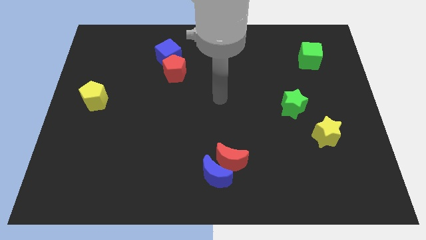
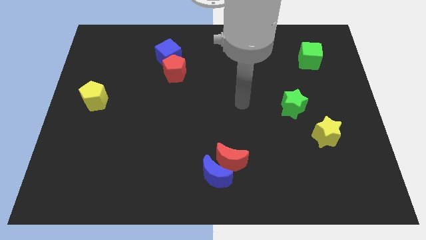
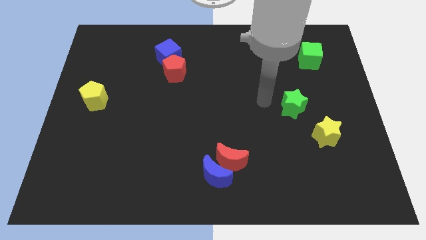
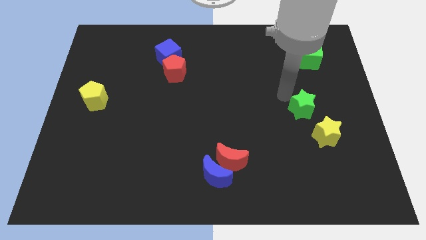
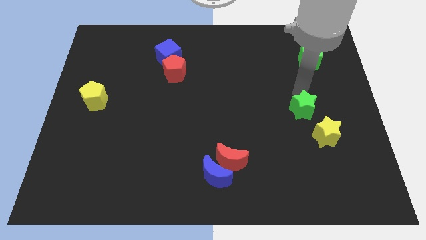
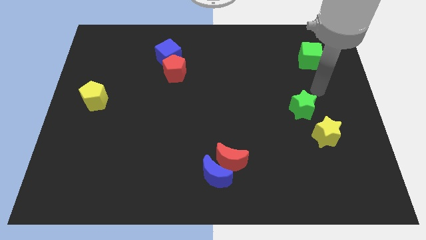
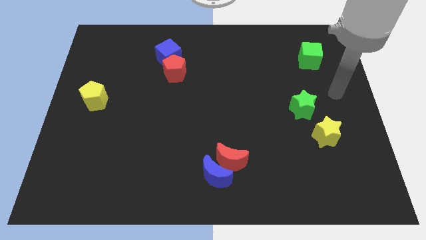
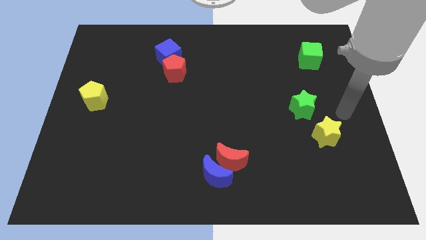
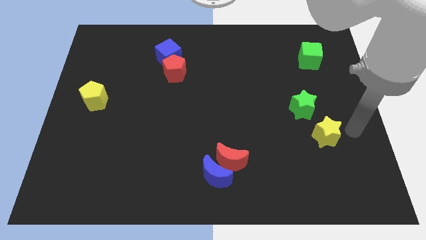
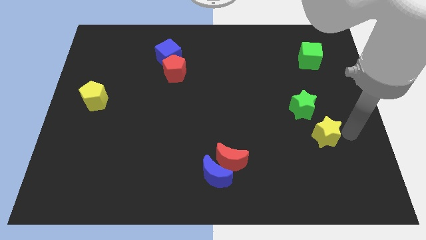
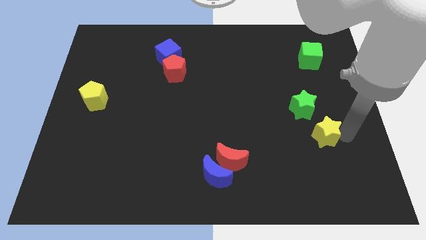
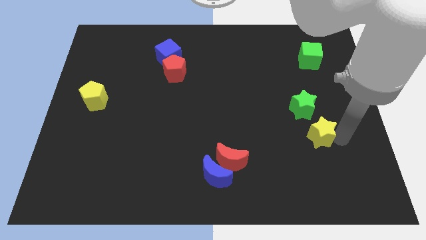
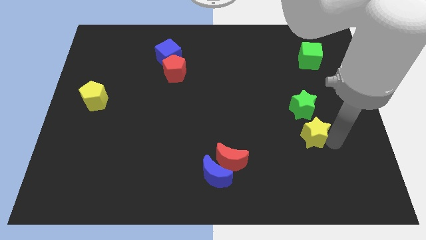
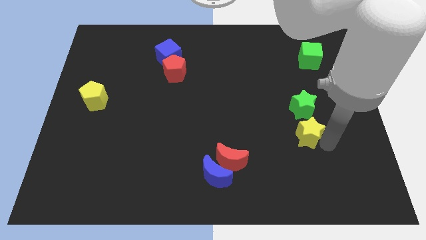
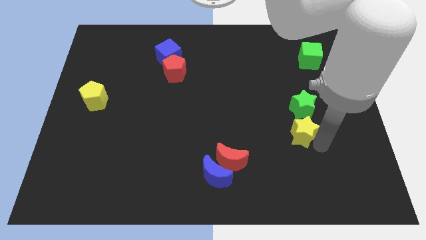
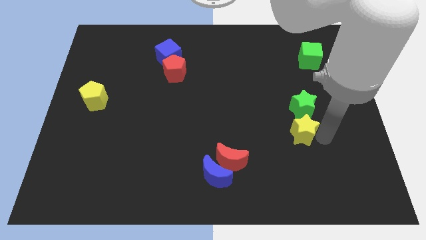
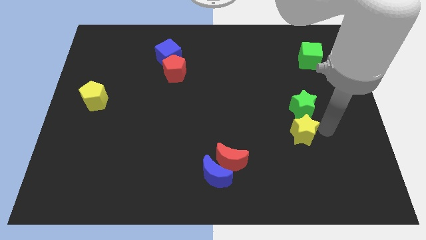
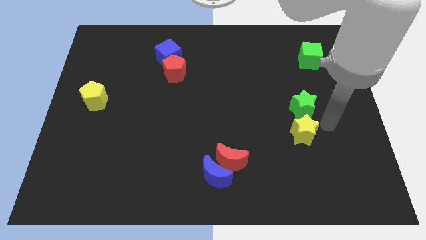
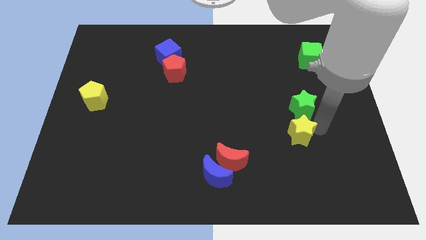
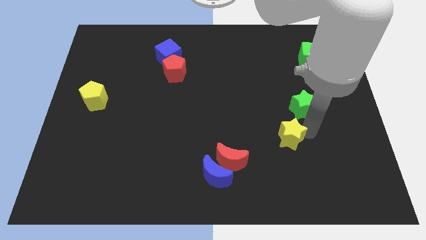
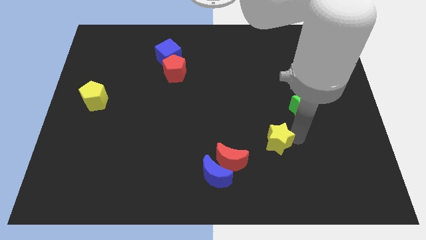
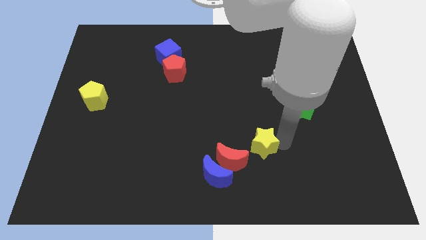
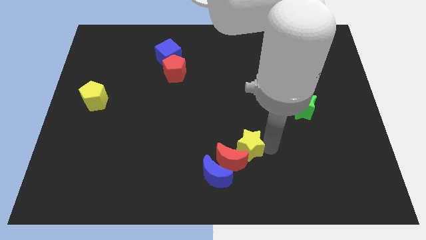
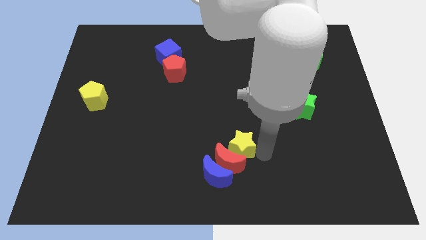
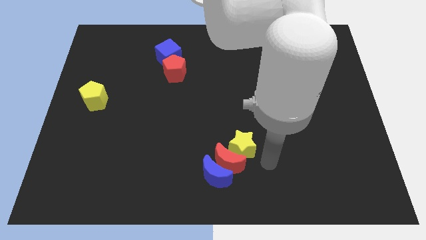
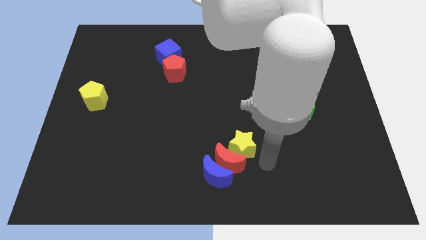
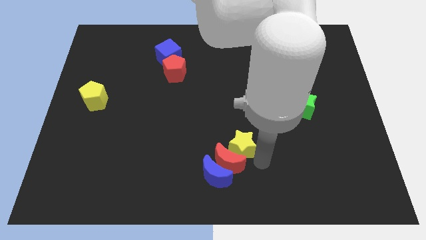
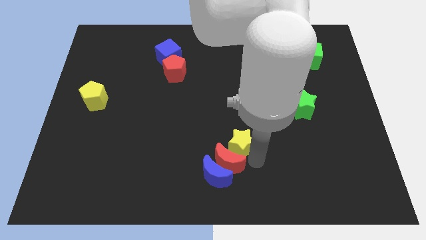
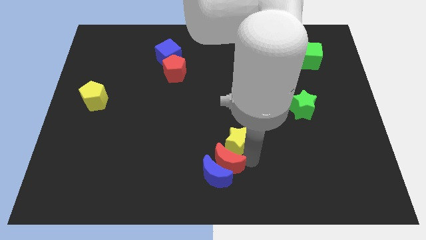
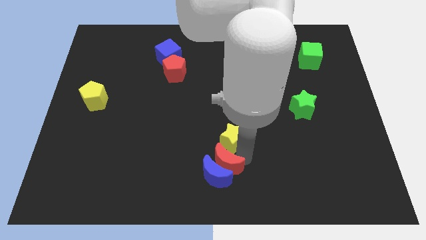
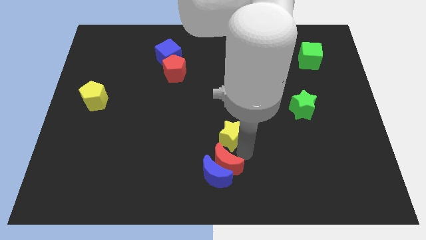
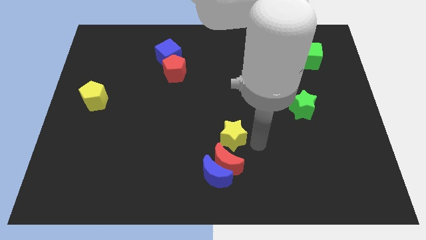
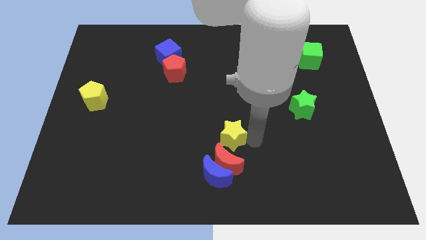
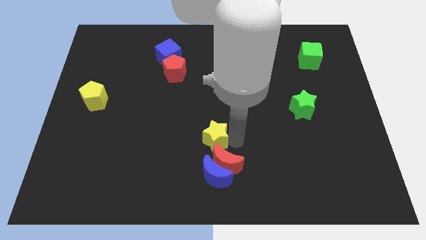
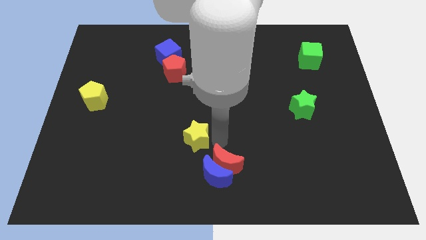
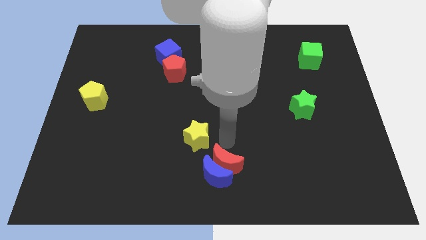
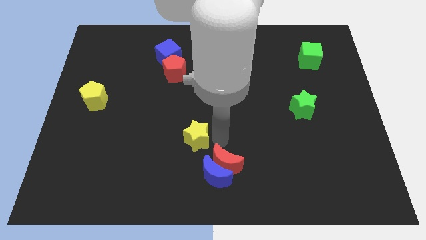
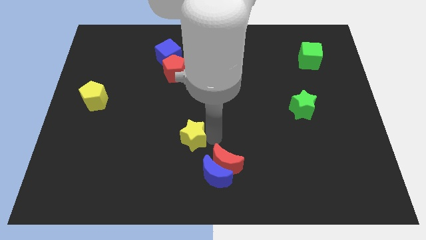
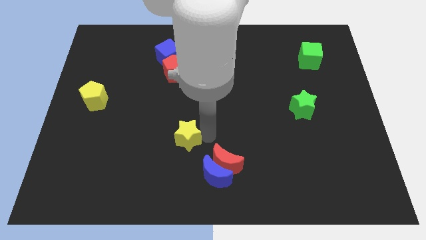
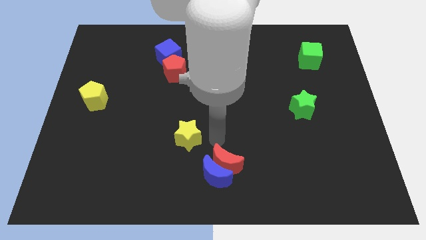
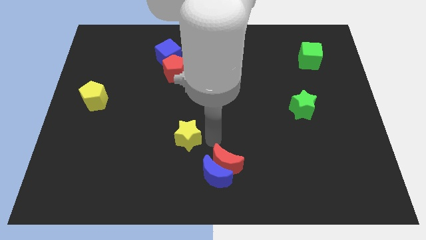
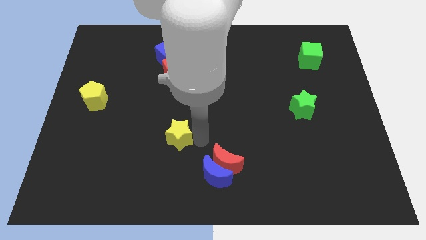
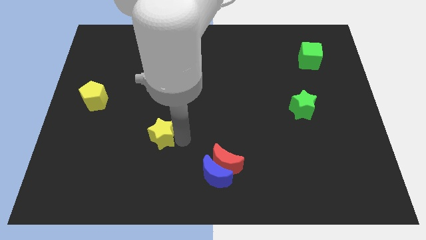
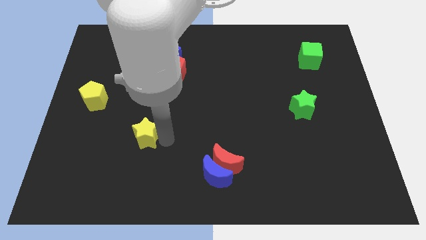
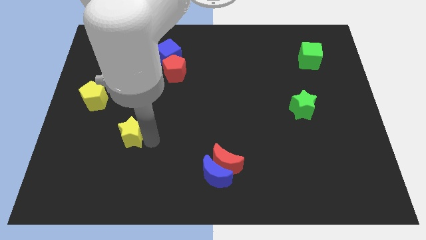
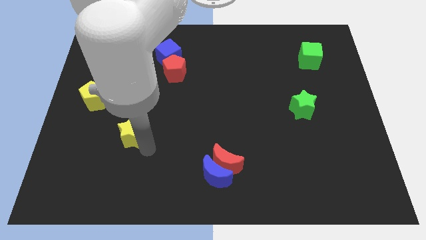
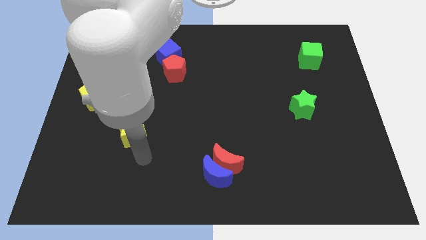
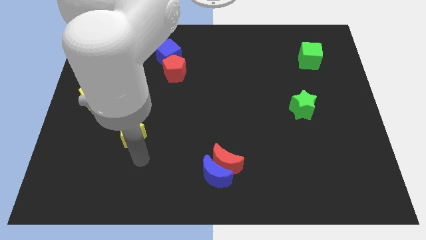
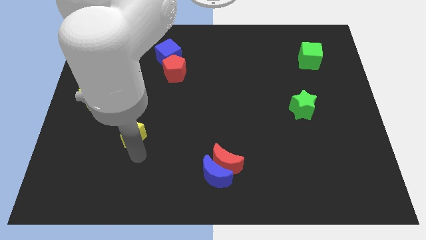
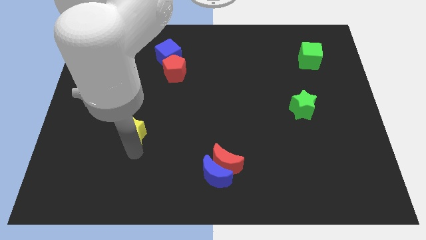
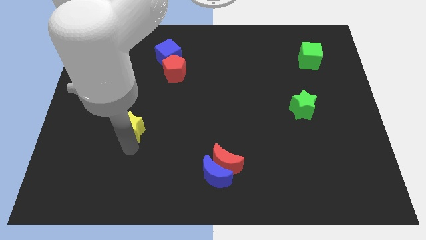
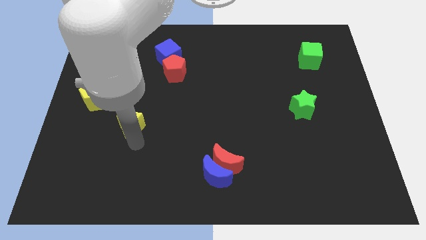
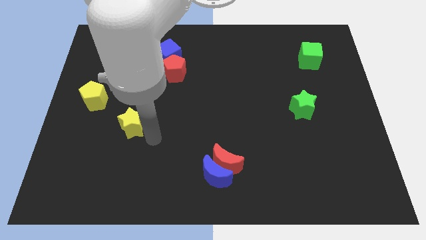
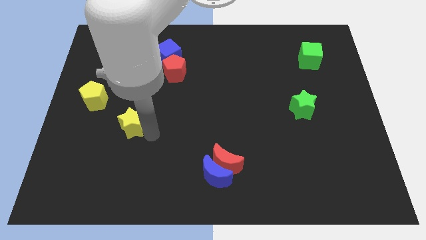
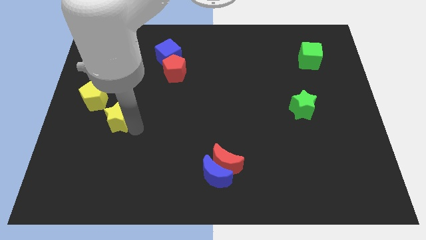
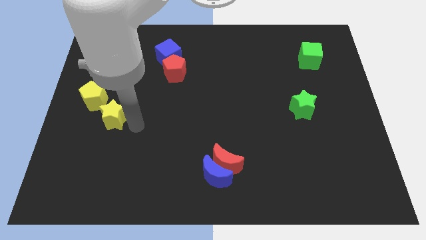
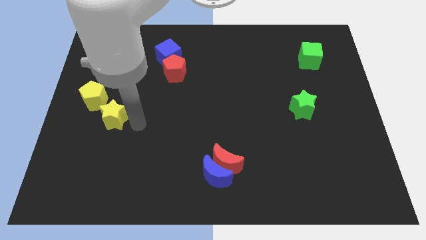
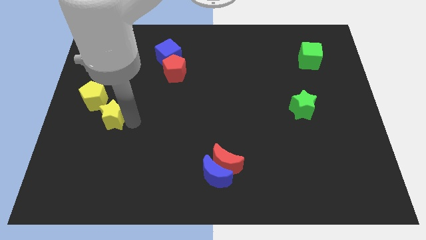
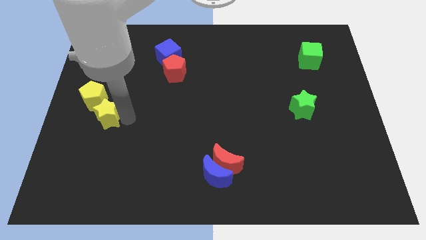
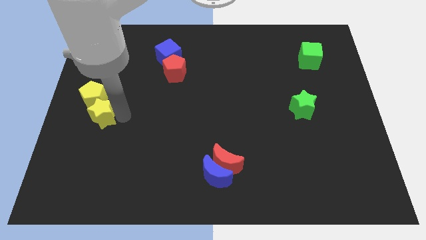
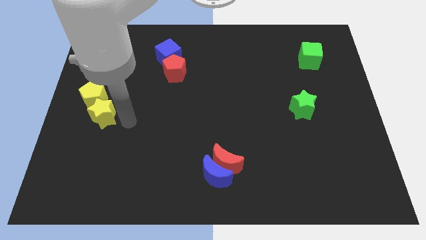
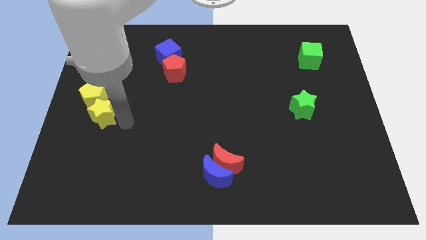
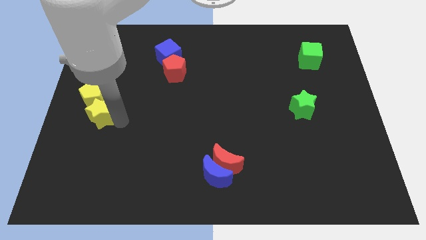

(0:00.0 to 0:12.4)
push the yellow star to the left side
